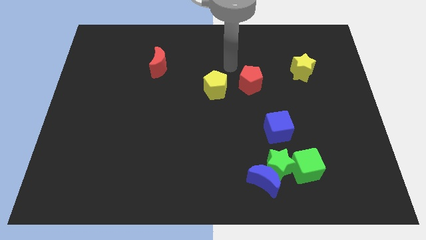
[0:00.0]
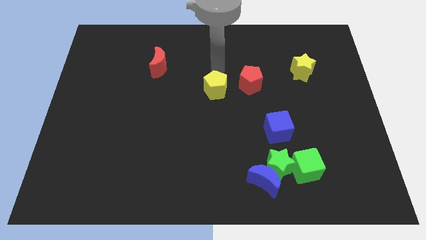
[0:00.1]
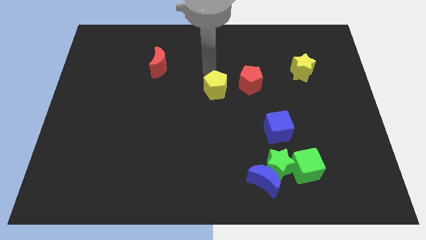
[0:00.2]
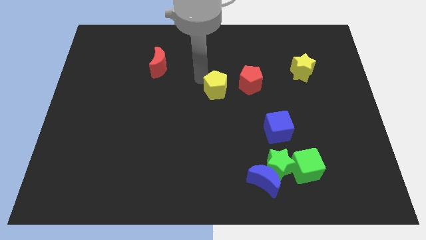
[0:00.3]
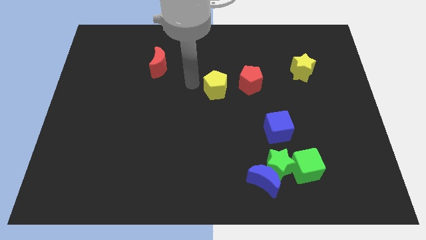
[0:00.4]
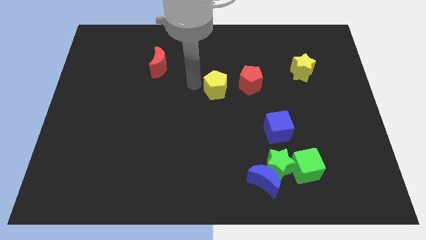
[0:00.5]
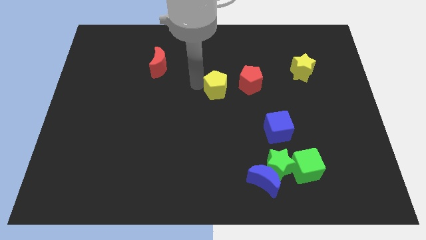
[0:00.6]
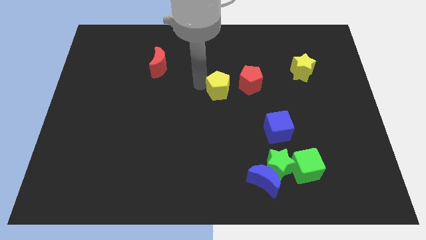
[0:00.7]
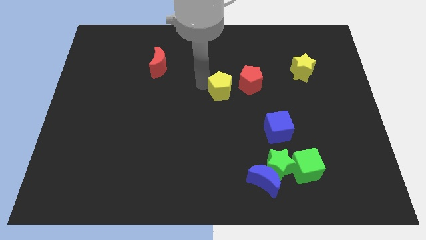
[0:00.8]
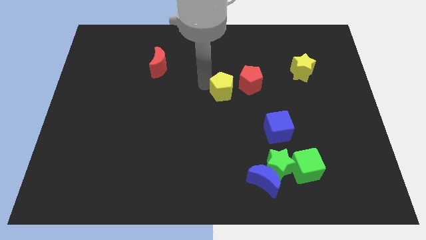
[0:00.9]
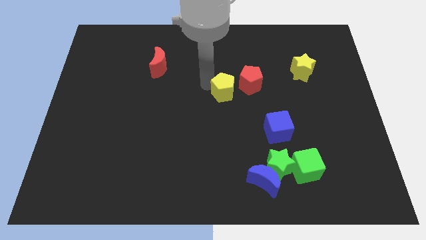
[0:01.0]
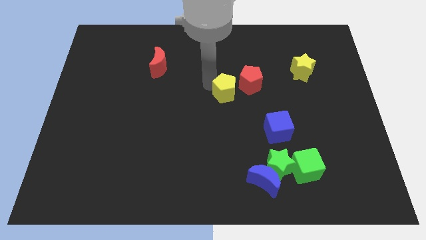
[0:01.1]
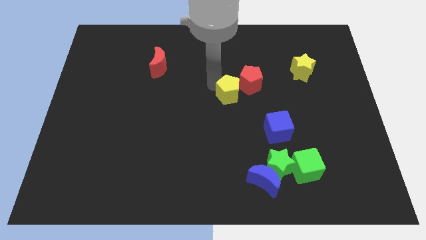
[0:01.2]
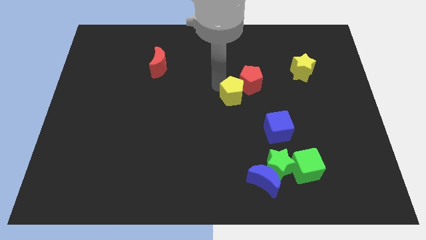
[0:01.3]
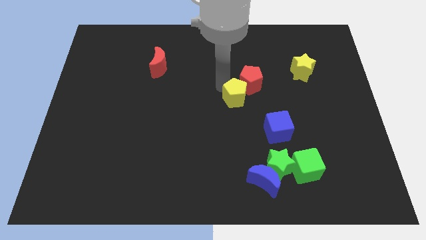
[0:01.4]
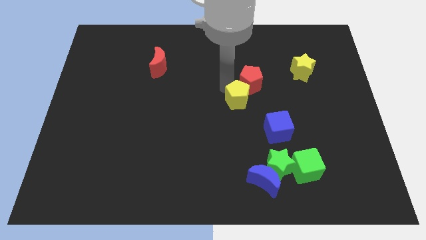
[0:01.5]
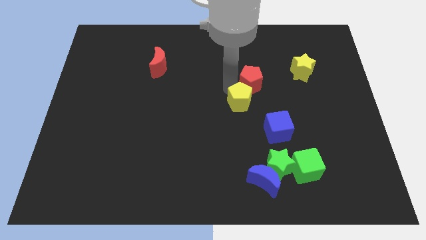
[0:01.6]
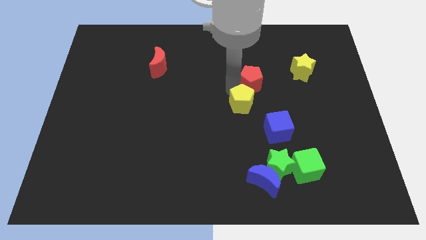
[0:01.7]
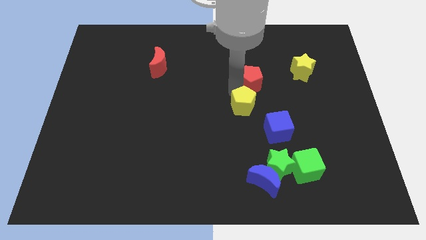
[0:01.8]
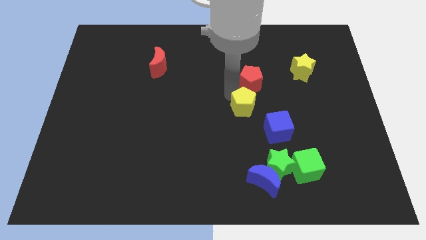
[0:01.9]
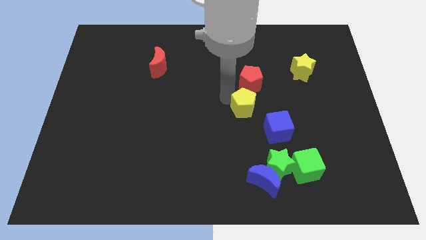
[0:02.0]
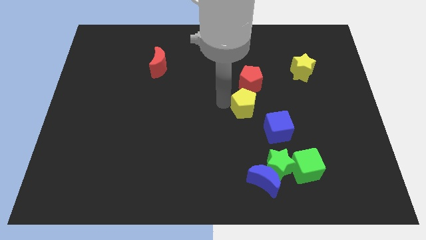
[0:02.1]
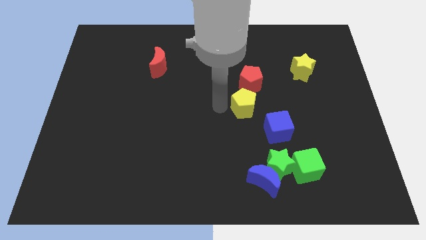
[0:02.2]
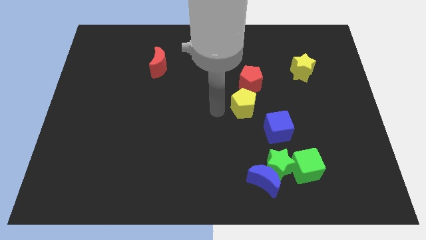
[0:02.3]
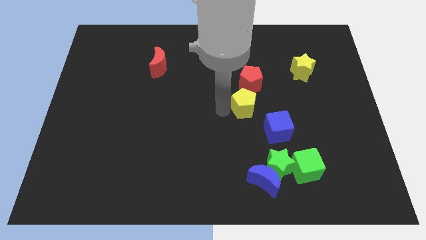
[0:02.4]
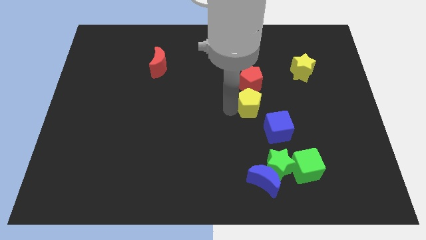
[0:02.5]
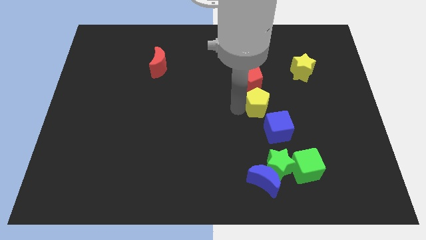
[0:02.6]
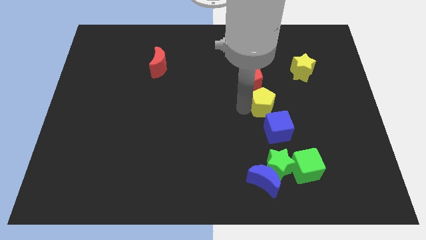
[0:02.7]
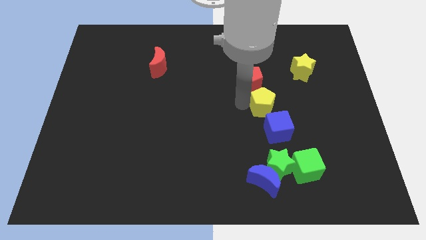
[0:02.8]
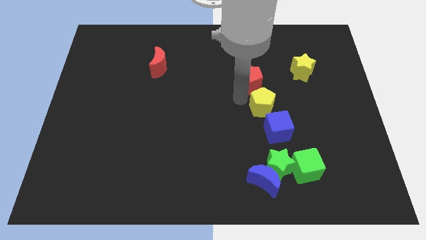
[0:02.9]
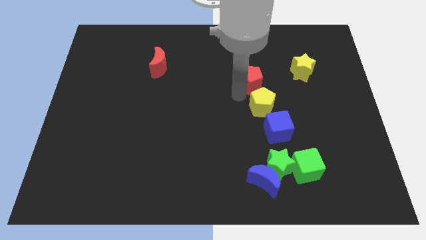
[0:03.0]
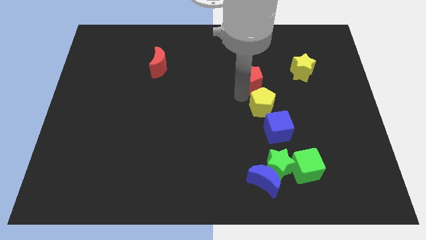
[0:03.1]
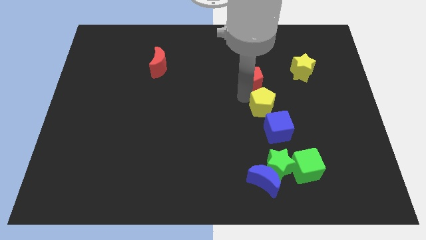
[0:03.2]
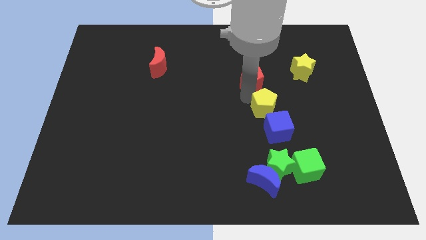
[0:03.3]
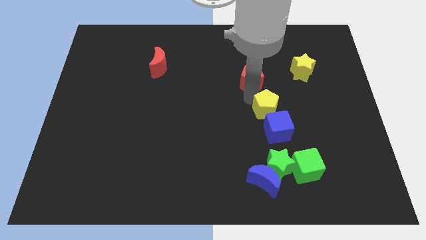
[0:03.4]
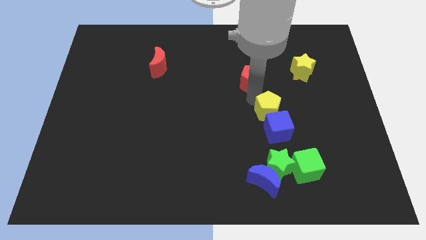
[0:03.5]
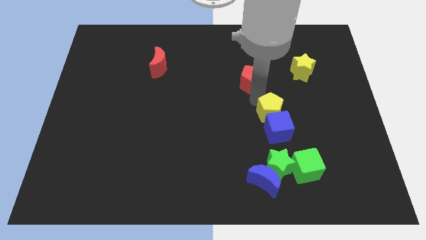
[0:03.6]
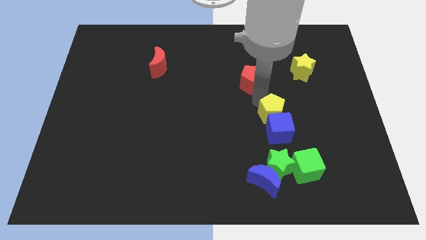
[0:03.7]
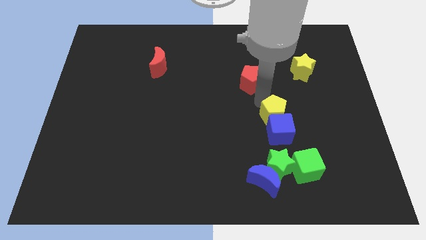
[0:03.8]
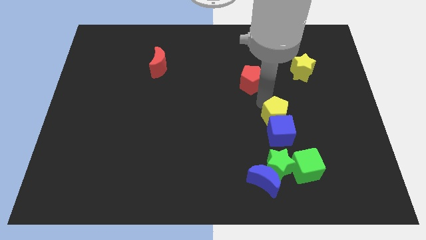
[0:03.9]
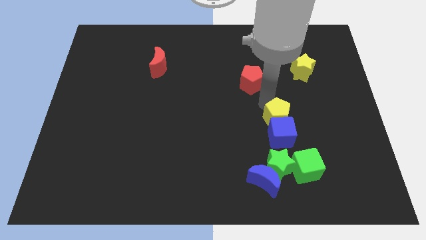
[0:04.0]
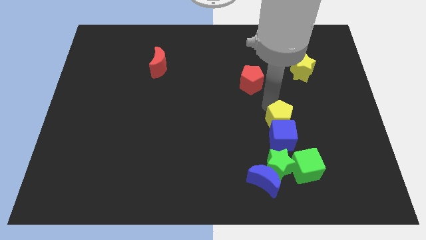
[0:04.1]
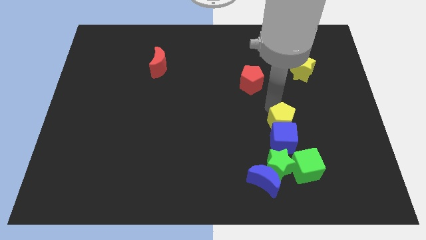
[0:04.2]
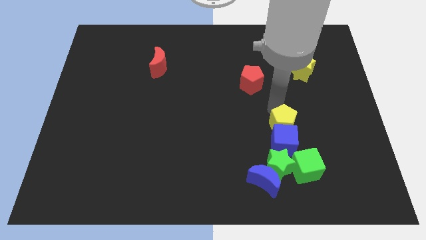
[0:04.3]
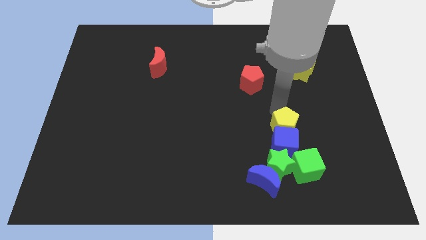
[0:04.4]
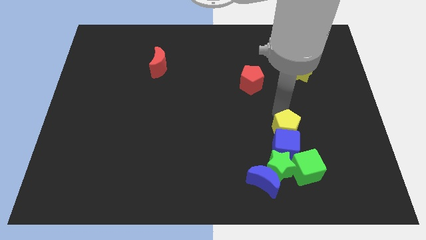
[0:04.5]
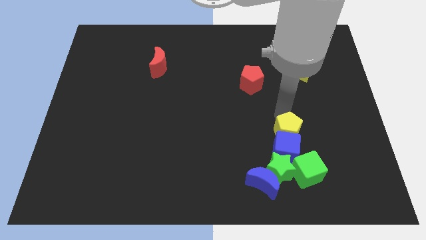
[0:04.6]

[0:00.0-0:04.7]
push the yellow pentagon downwards and then to the right

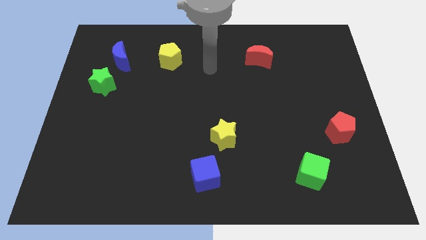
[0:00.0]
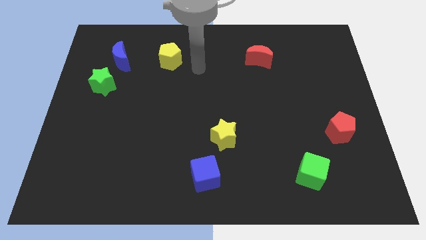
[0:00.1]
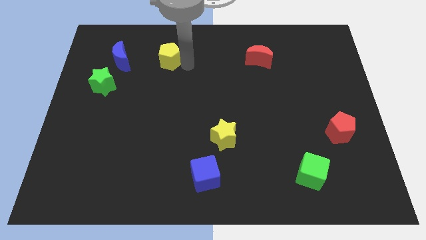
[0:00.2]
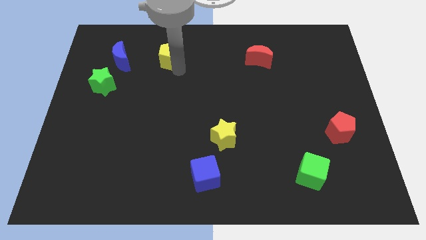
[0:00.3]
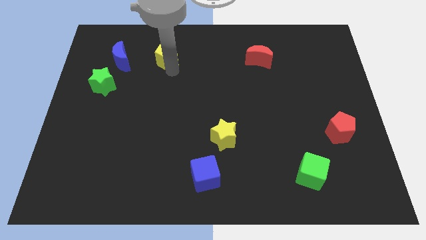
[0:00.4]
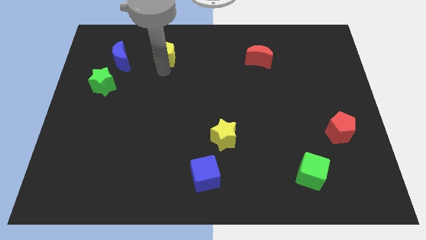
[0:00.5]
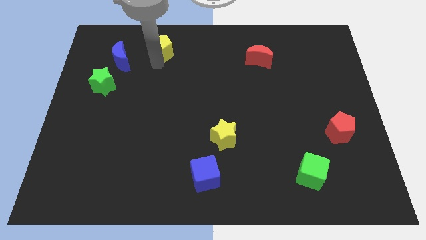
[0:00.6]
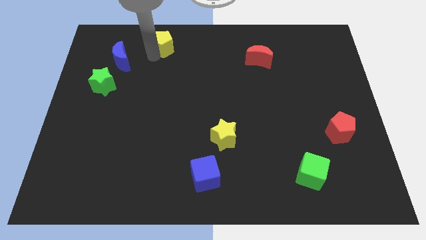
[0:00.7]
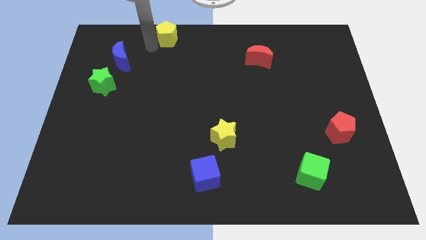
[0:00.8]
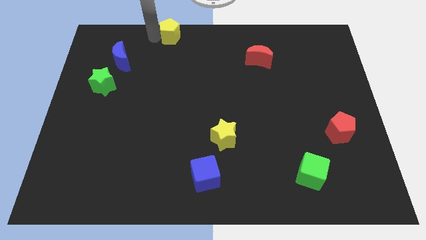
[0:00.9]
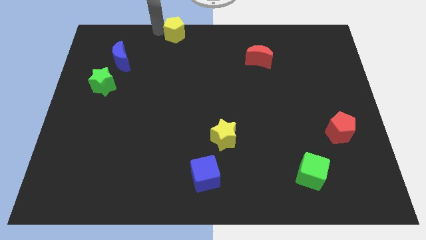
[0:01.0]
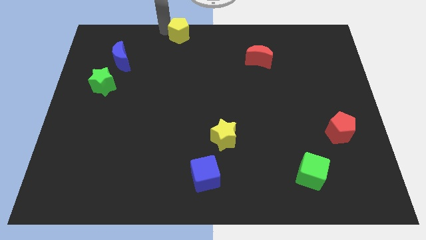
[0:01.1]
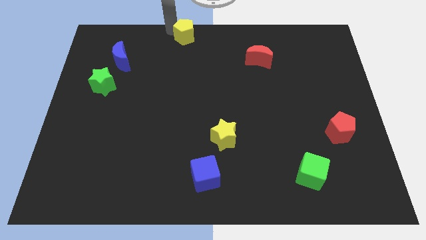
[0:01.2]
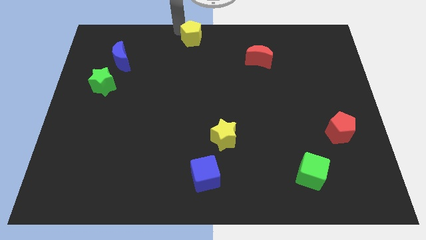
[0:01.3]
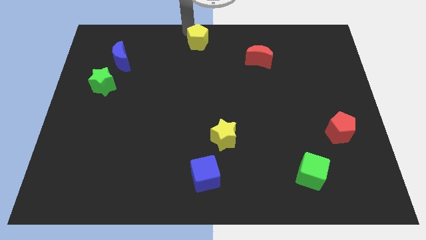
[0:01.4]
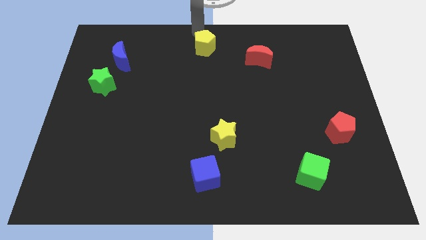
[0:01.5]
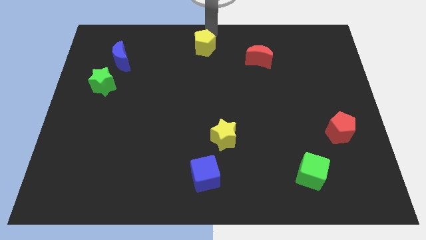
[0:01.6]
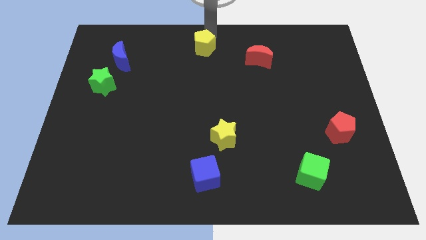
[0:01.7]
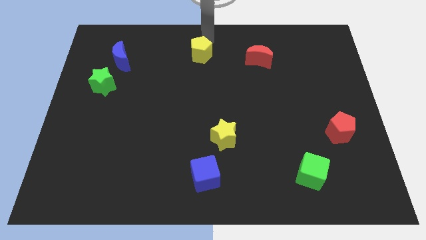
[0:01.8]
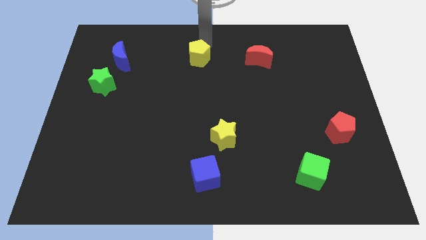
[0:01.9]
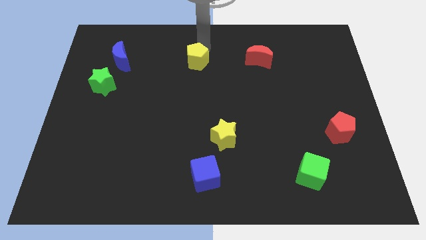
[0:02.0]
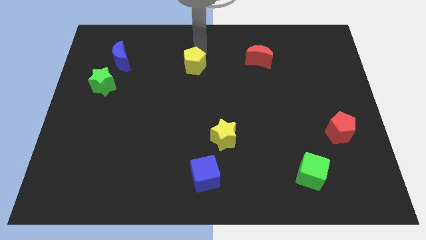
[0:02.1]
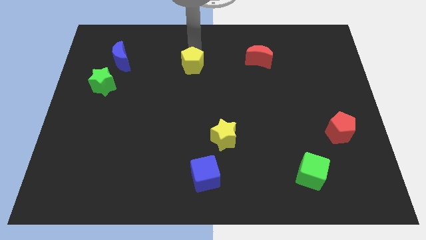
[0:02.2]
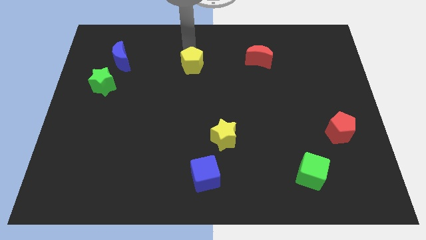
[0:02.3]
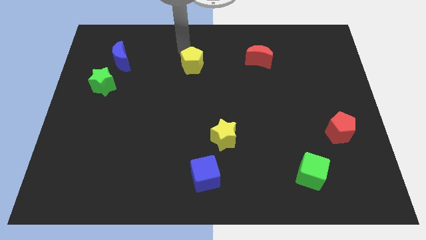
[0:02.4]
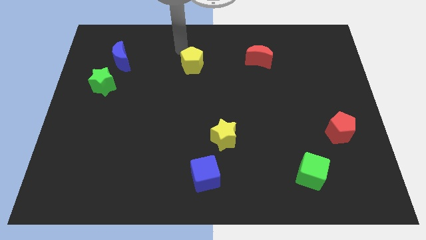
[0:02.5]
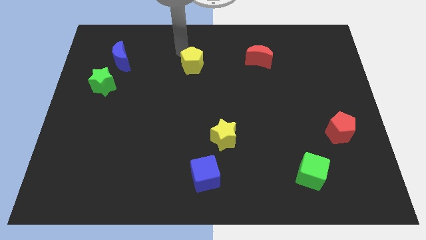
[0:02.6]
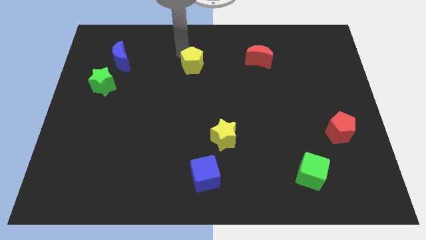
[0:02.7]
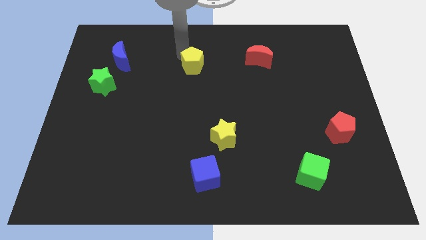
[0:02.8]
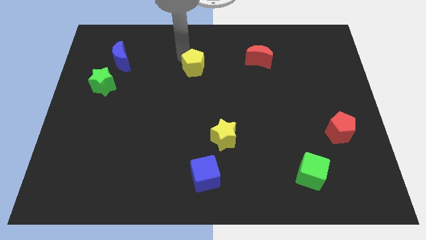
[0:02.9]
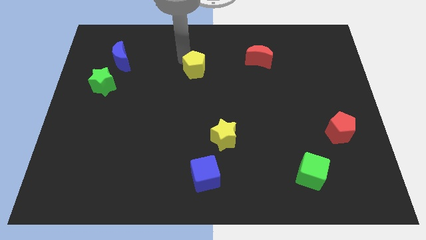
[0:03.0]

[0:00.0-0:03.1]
slide the yellow pentagon a little bit diagonally down and to the right

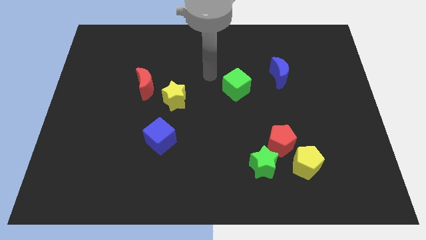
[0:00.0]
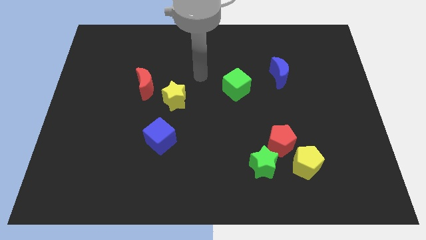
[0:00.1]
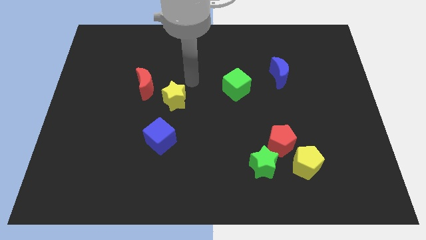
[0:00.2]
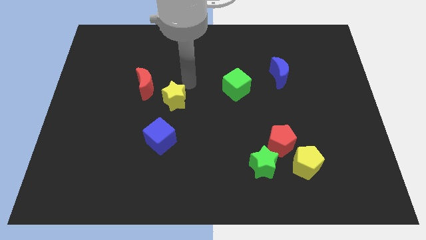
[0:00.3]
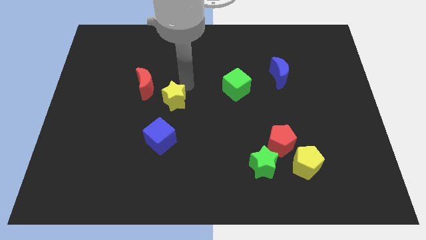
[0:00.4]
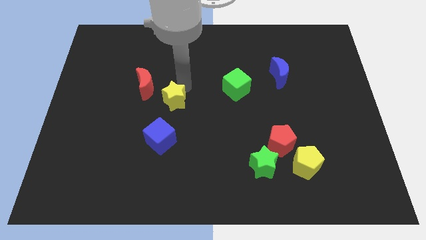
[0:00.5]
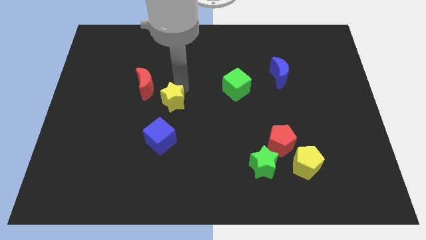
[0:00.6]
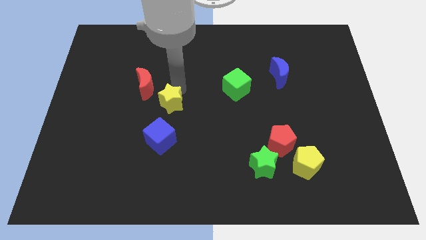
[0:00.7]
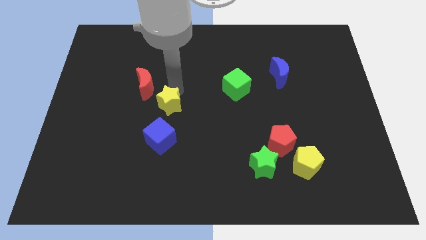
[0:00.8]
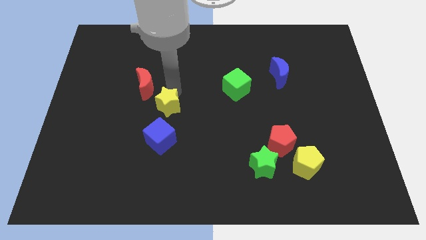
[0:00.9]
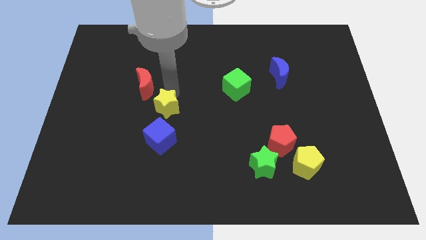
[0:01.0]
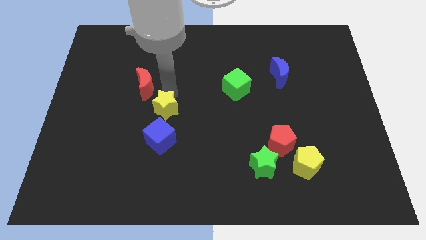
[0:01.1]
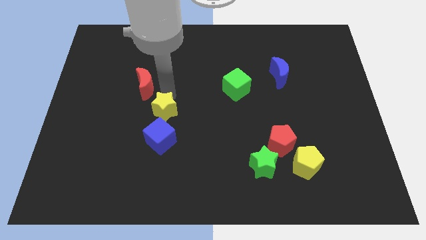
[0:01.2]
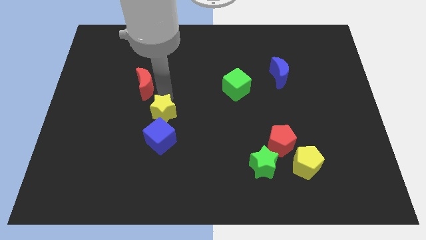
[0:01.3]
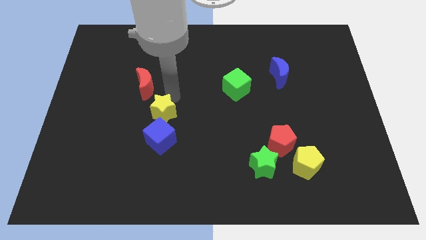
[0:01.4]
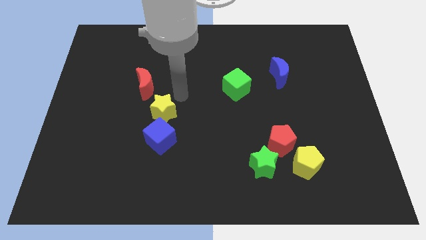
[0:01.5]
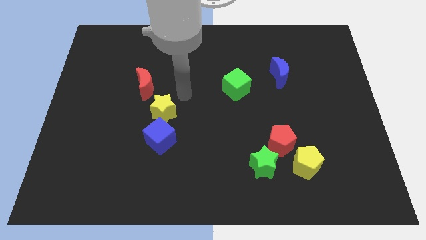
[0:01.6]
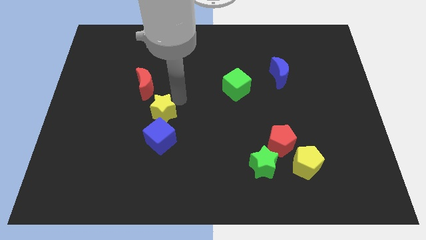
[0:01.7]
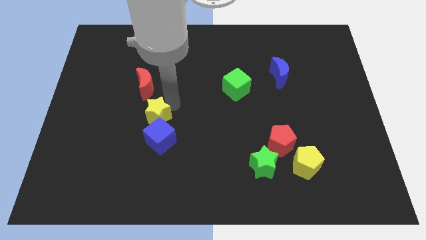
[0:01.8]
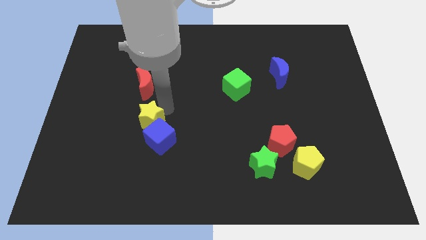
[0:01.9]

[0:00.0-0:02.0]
slightly move the yellow star downwards and then left
